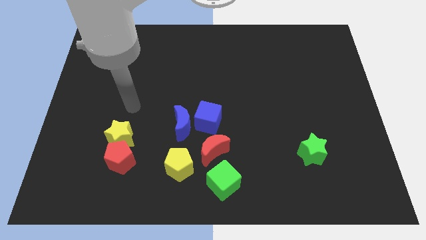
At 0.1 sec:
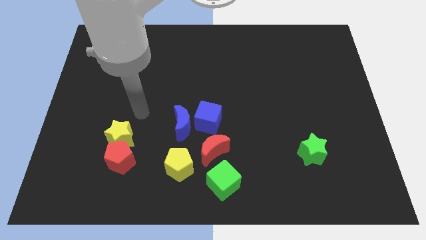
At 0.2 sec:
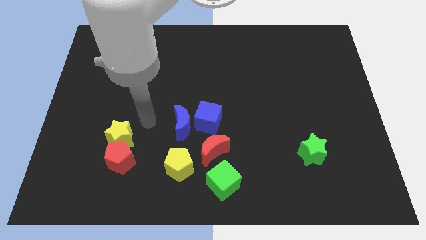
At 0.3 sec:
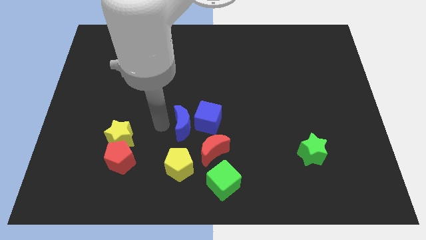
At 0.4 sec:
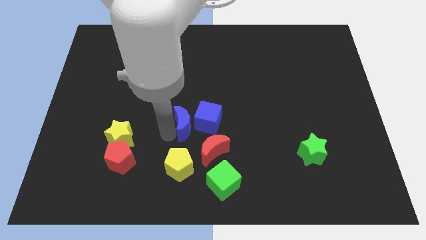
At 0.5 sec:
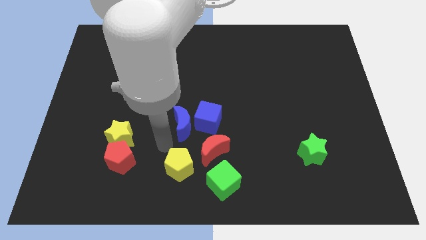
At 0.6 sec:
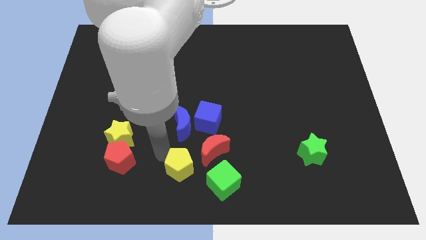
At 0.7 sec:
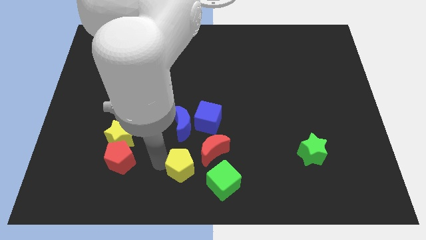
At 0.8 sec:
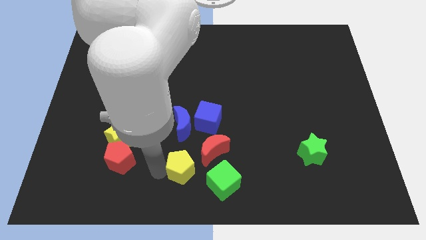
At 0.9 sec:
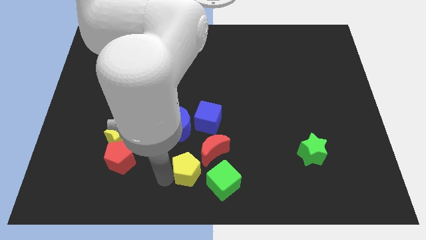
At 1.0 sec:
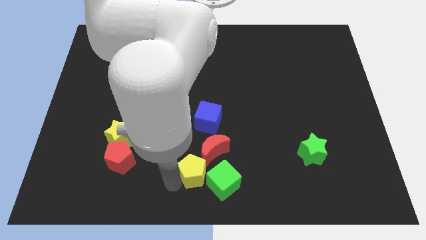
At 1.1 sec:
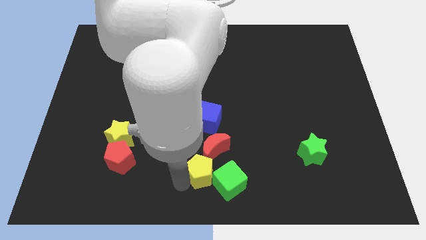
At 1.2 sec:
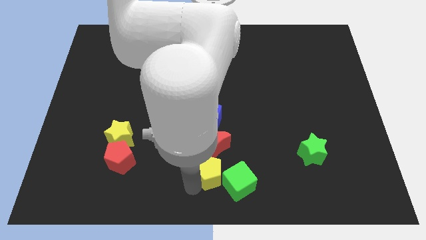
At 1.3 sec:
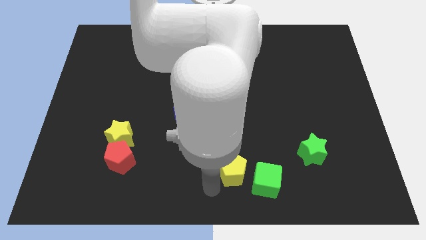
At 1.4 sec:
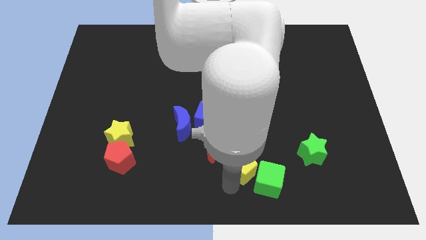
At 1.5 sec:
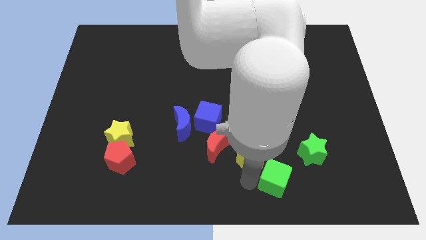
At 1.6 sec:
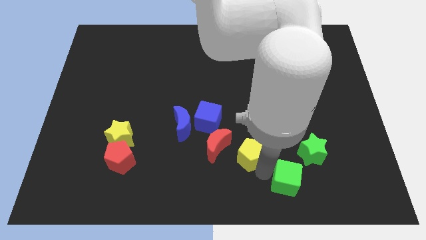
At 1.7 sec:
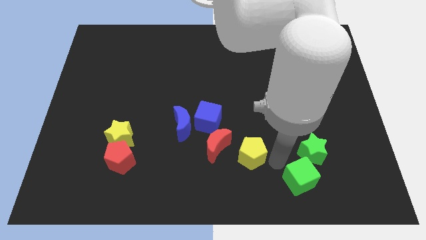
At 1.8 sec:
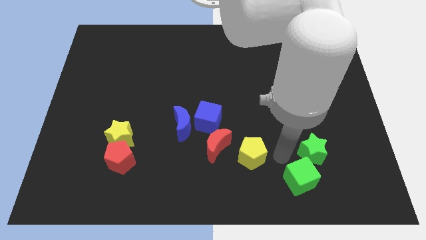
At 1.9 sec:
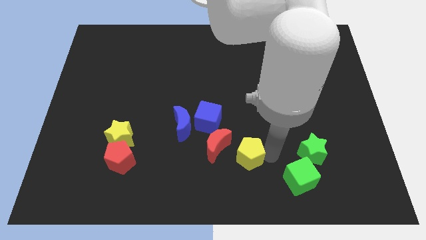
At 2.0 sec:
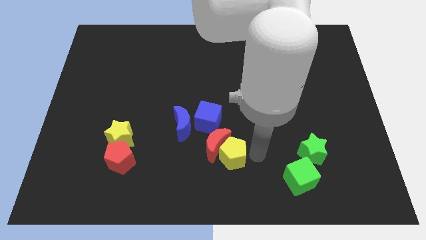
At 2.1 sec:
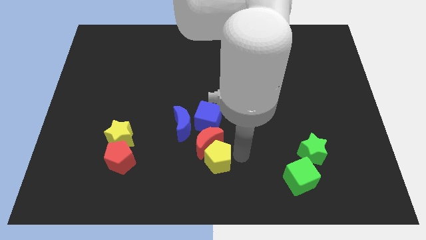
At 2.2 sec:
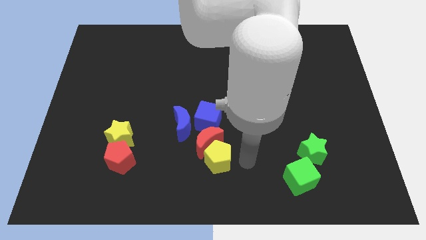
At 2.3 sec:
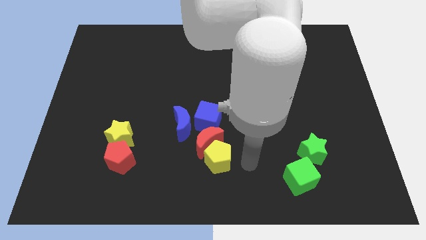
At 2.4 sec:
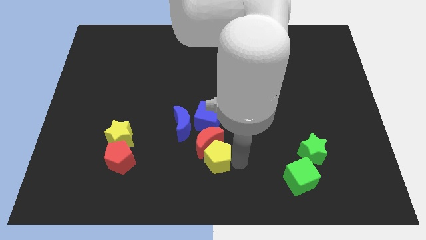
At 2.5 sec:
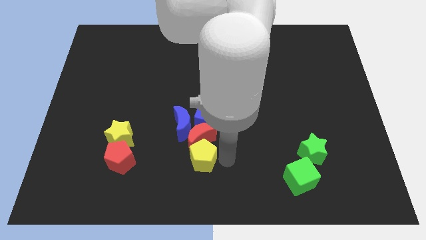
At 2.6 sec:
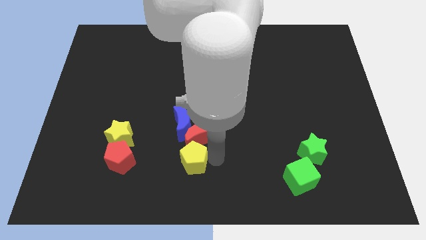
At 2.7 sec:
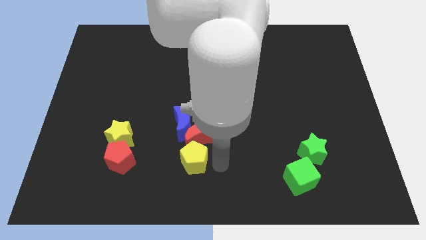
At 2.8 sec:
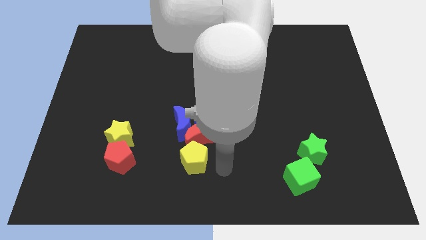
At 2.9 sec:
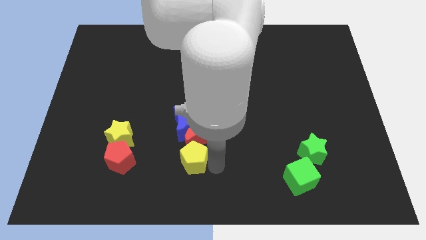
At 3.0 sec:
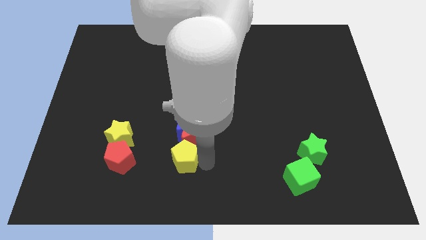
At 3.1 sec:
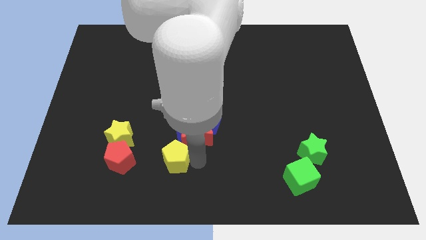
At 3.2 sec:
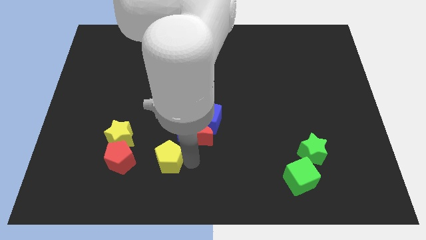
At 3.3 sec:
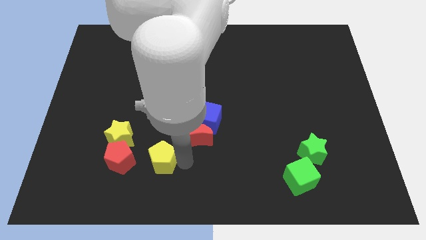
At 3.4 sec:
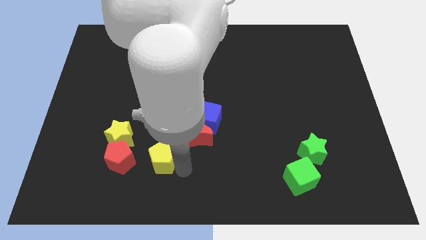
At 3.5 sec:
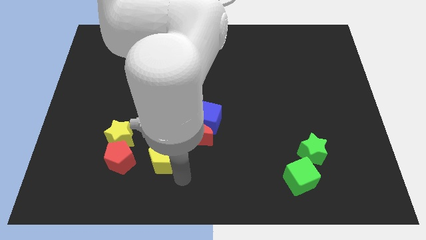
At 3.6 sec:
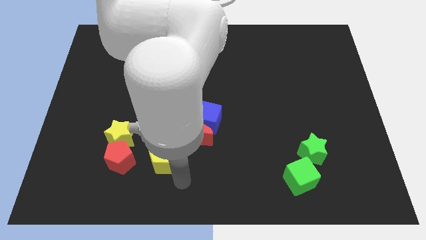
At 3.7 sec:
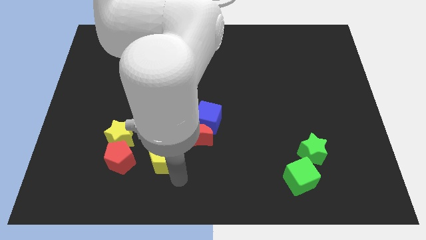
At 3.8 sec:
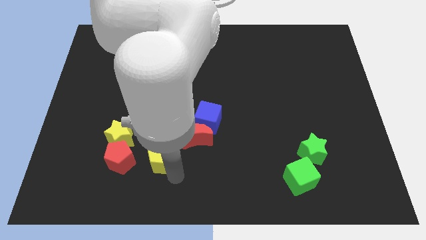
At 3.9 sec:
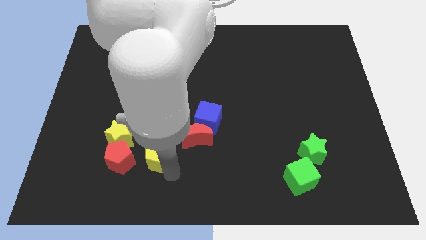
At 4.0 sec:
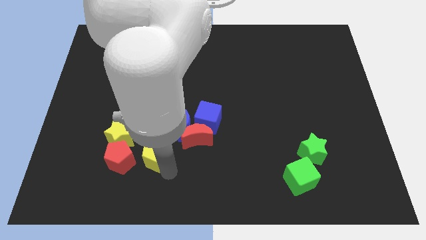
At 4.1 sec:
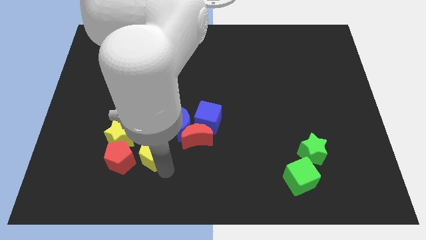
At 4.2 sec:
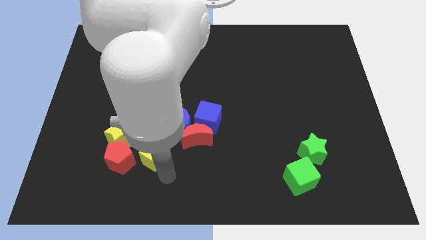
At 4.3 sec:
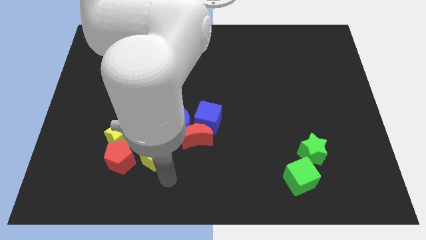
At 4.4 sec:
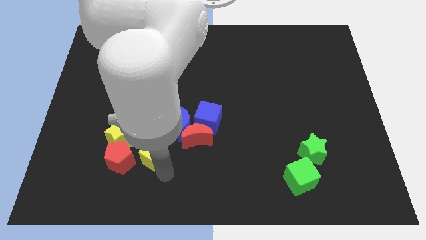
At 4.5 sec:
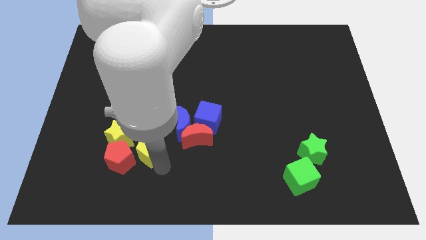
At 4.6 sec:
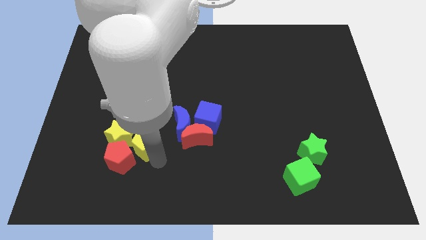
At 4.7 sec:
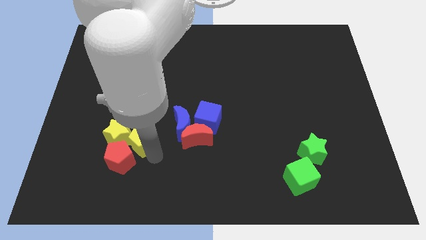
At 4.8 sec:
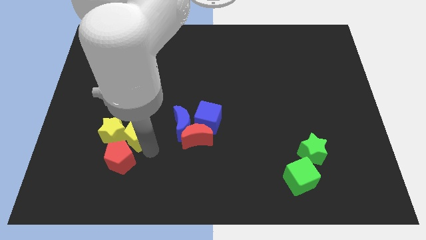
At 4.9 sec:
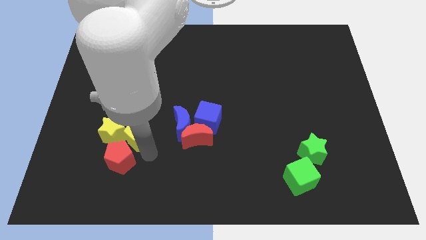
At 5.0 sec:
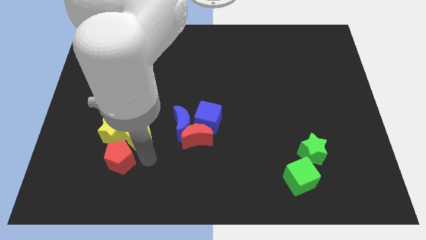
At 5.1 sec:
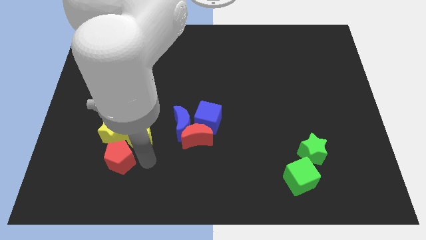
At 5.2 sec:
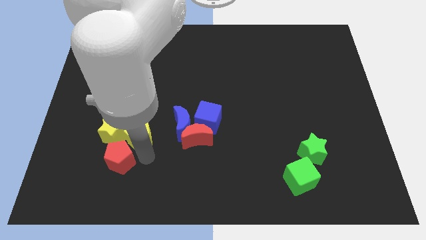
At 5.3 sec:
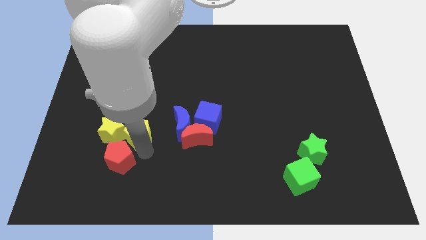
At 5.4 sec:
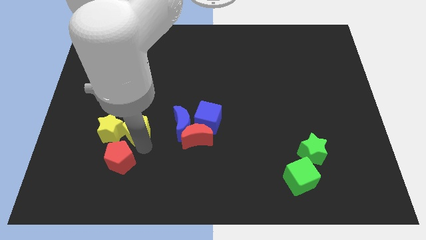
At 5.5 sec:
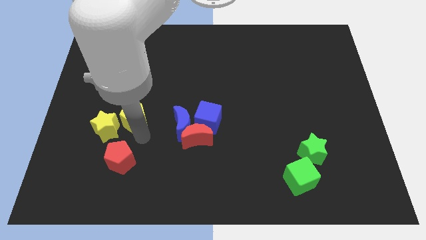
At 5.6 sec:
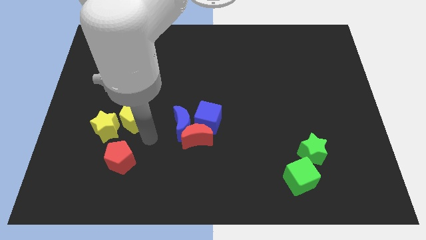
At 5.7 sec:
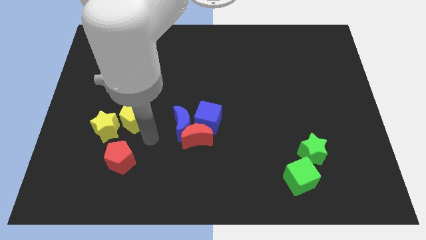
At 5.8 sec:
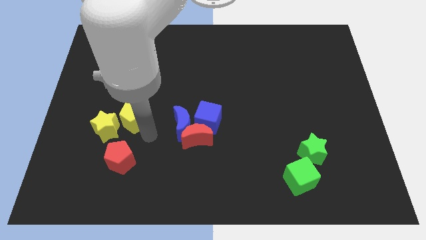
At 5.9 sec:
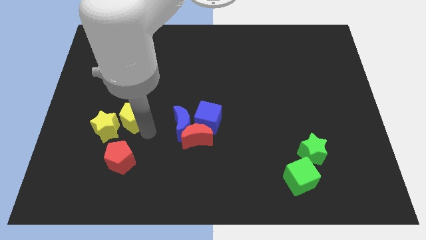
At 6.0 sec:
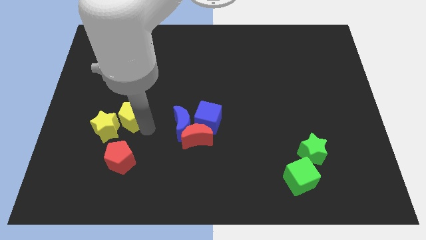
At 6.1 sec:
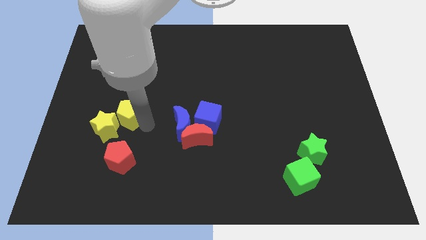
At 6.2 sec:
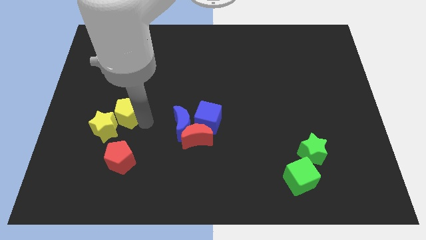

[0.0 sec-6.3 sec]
slide the yellow pentagon above the yellow star

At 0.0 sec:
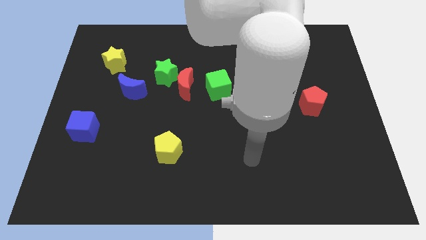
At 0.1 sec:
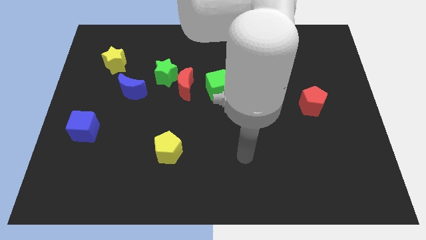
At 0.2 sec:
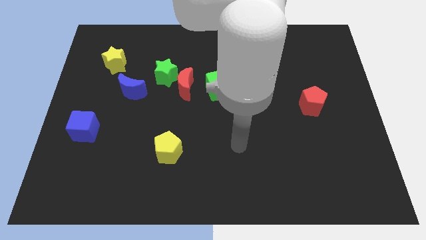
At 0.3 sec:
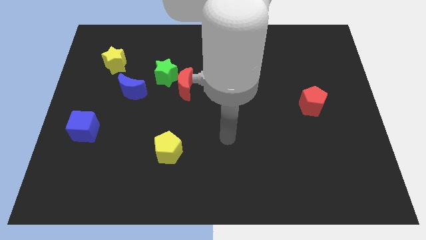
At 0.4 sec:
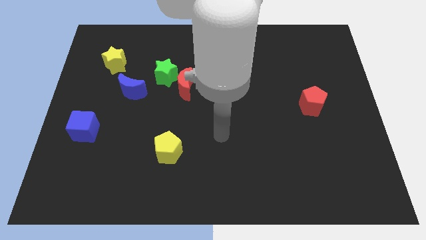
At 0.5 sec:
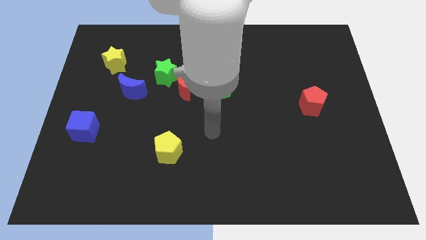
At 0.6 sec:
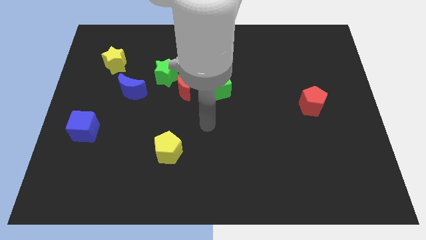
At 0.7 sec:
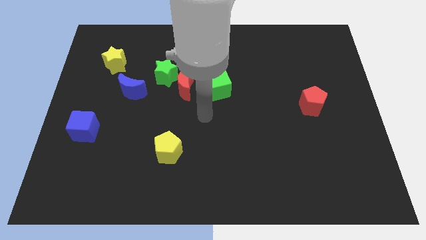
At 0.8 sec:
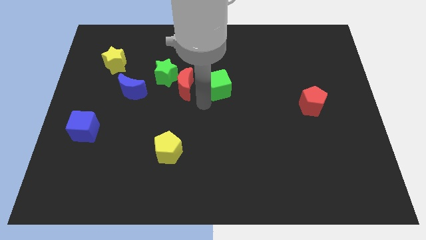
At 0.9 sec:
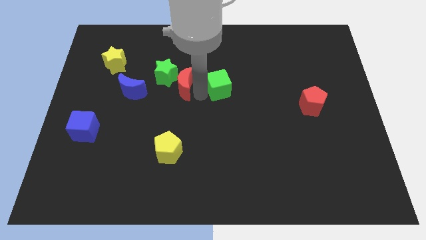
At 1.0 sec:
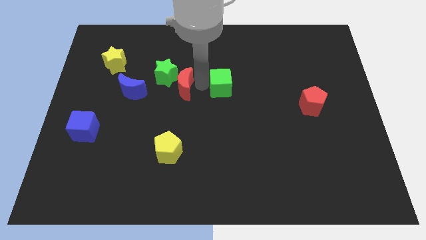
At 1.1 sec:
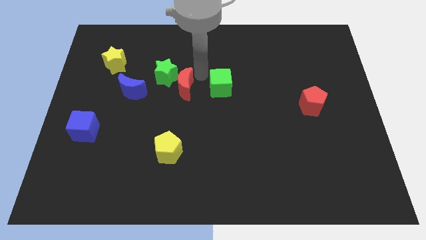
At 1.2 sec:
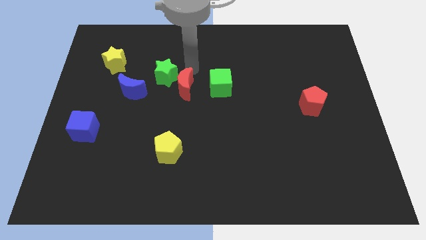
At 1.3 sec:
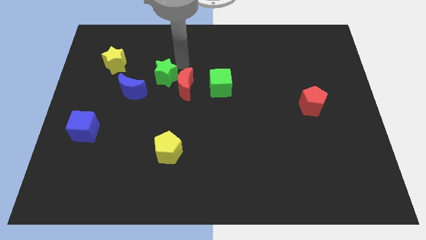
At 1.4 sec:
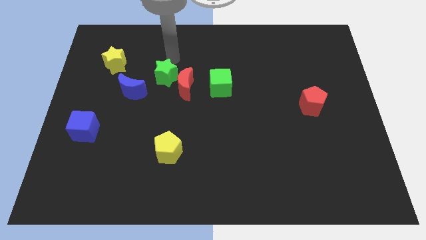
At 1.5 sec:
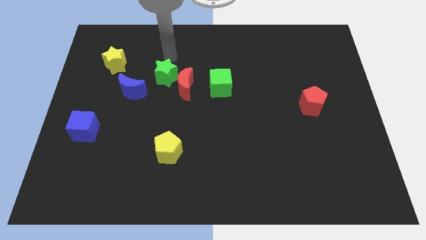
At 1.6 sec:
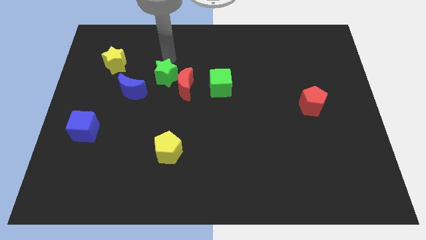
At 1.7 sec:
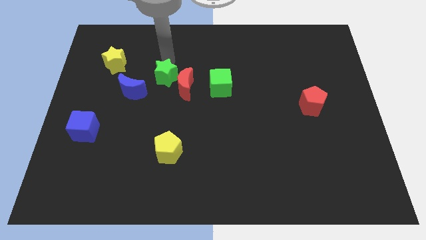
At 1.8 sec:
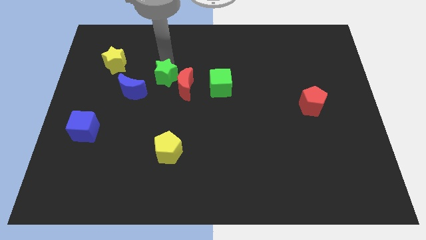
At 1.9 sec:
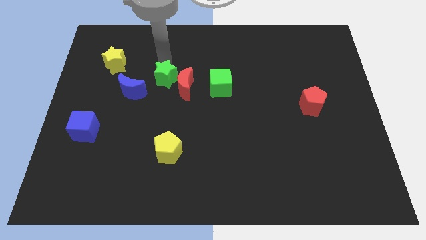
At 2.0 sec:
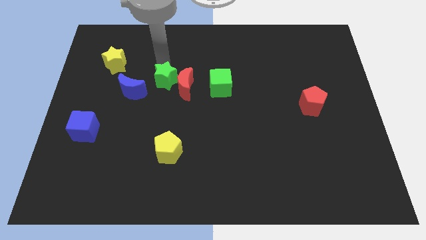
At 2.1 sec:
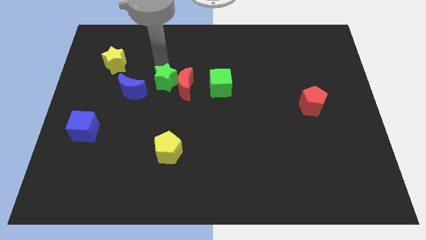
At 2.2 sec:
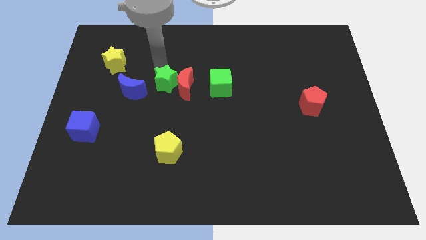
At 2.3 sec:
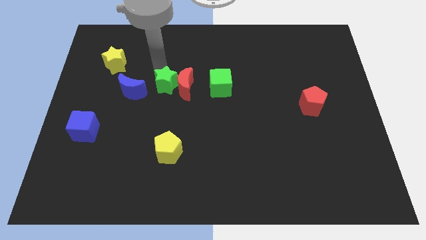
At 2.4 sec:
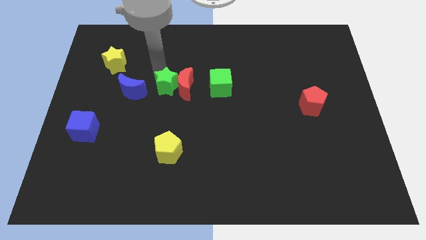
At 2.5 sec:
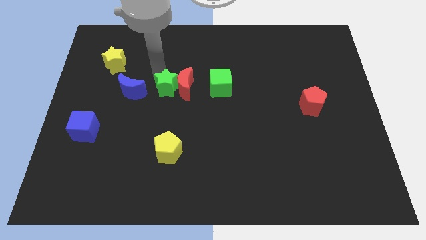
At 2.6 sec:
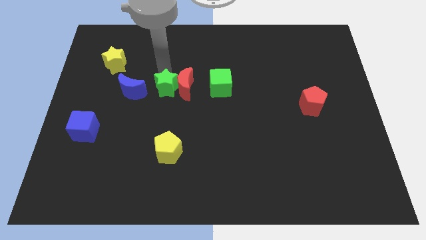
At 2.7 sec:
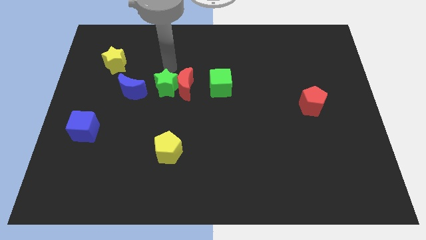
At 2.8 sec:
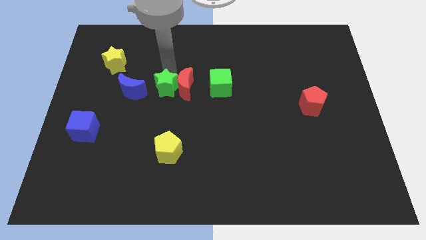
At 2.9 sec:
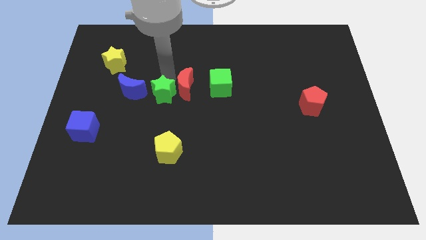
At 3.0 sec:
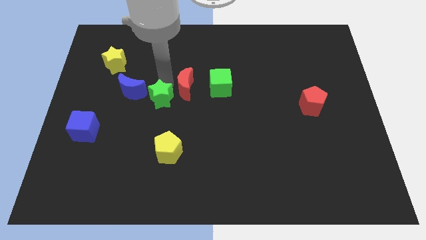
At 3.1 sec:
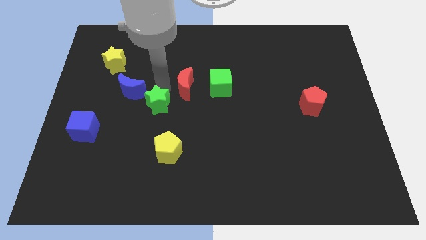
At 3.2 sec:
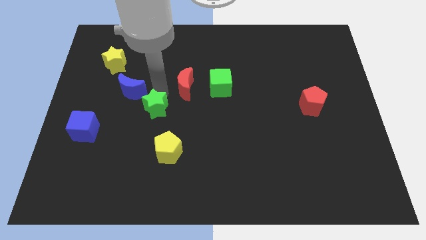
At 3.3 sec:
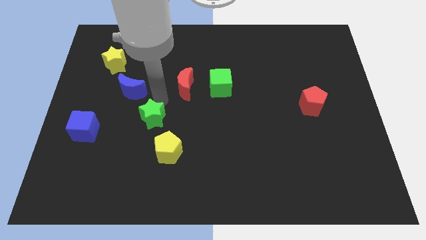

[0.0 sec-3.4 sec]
put the green star to the right side of the blue cube
